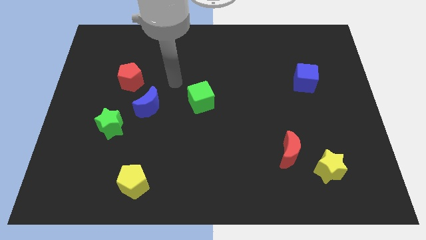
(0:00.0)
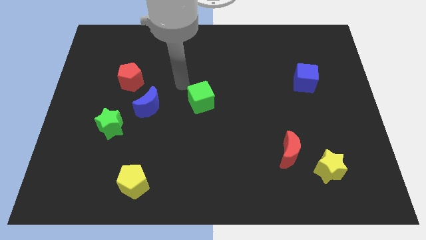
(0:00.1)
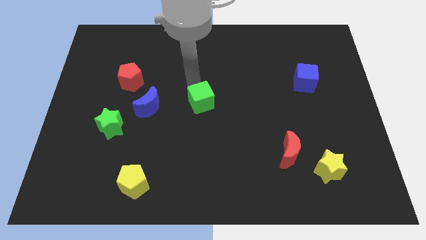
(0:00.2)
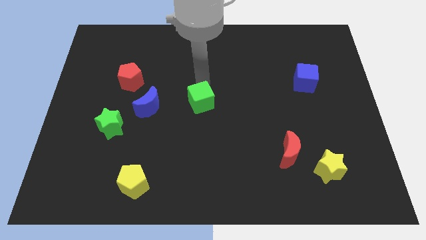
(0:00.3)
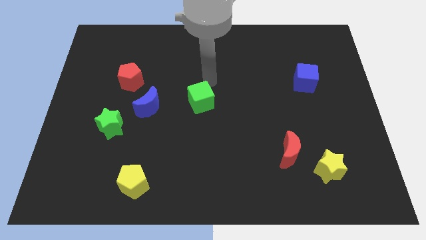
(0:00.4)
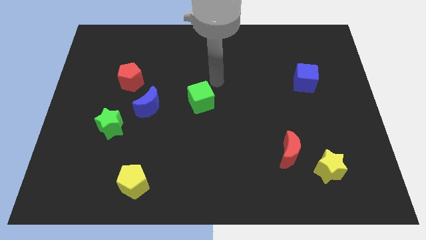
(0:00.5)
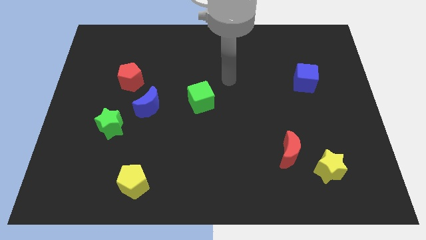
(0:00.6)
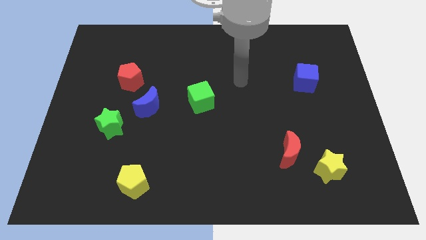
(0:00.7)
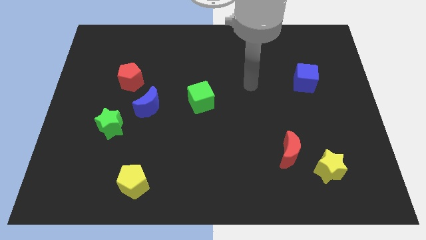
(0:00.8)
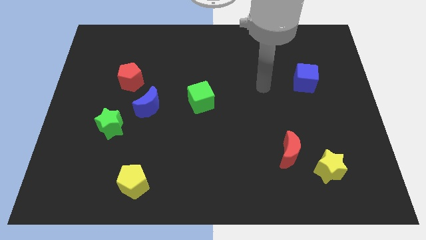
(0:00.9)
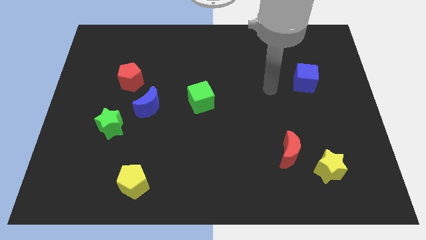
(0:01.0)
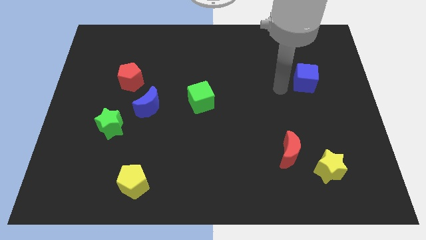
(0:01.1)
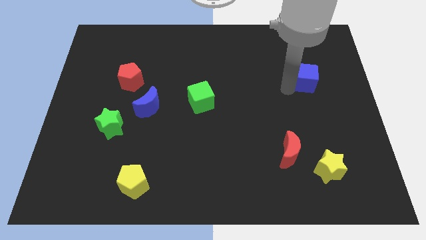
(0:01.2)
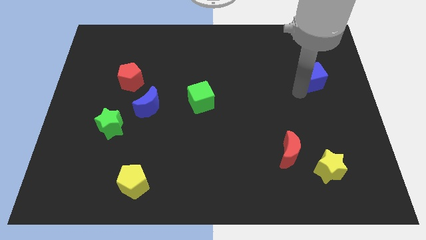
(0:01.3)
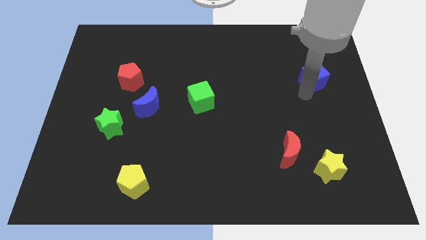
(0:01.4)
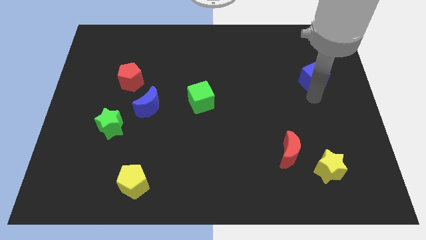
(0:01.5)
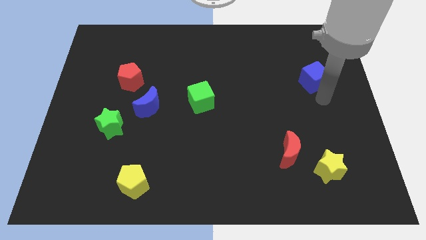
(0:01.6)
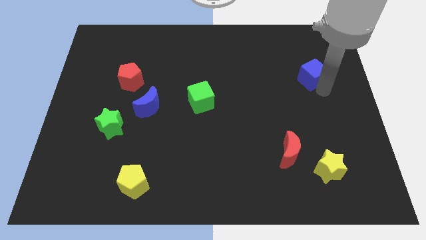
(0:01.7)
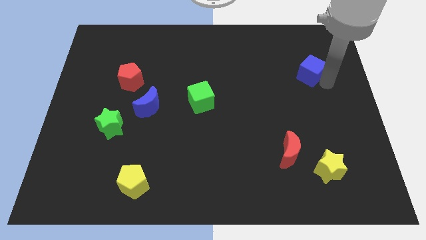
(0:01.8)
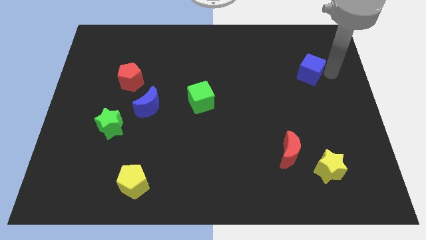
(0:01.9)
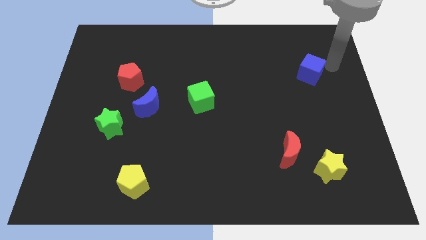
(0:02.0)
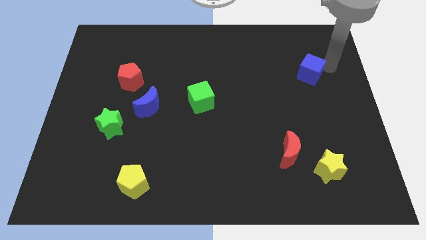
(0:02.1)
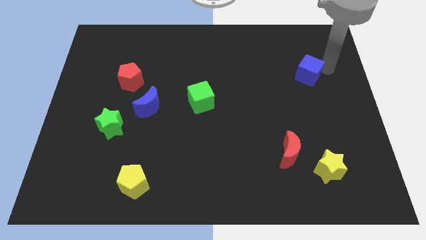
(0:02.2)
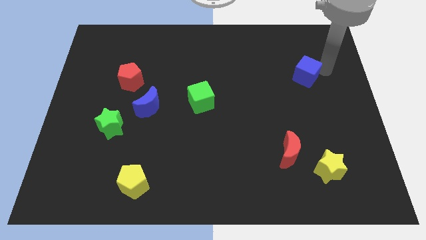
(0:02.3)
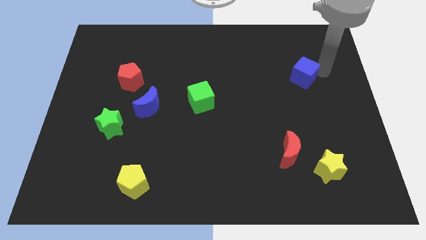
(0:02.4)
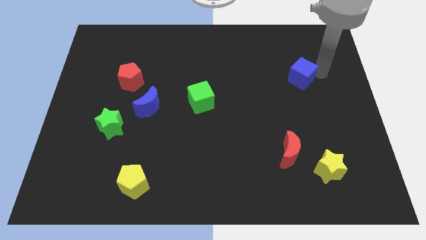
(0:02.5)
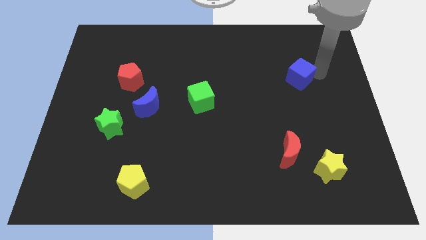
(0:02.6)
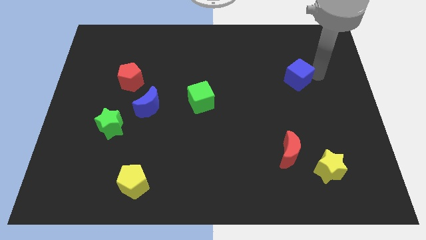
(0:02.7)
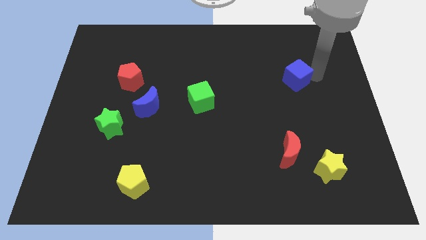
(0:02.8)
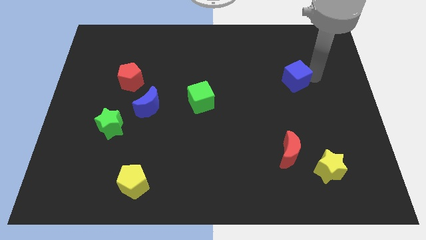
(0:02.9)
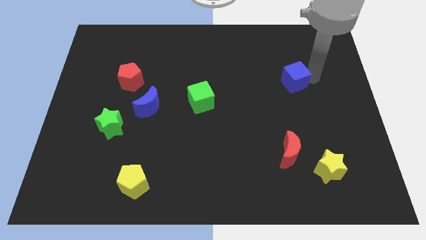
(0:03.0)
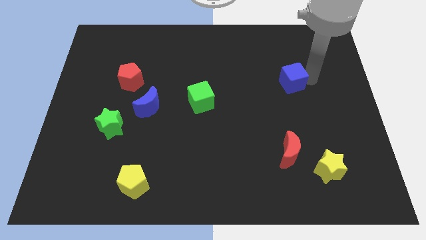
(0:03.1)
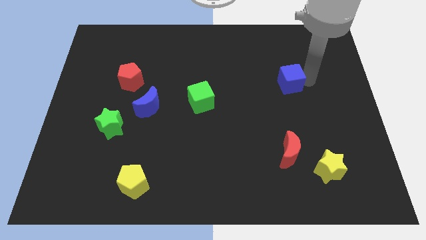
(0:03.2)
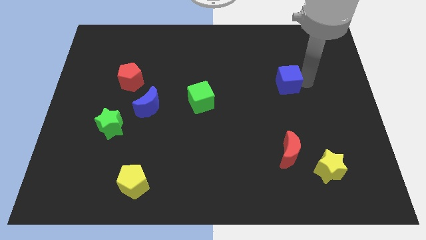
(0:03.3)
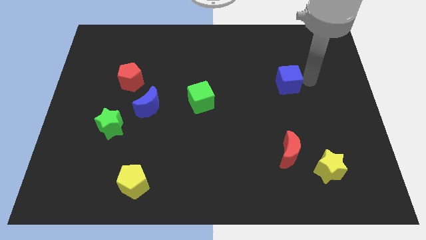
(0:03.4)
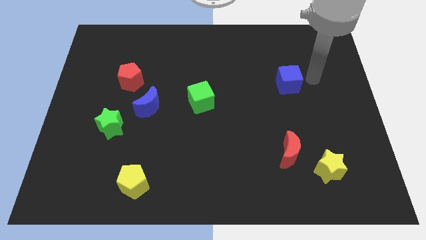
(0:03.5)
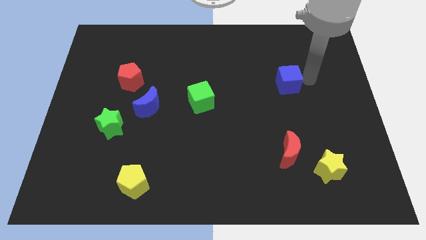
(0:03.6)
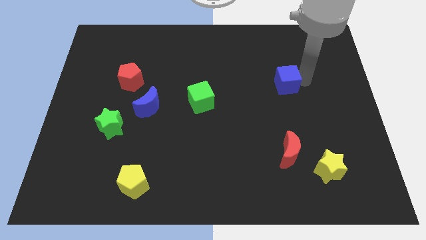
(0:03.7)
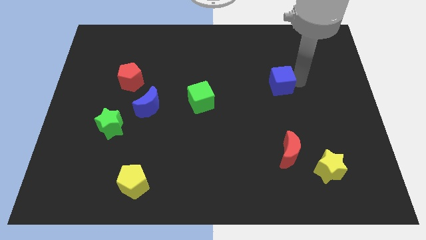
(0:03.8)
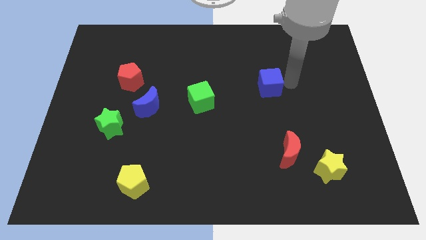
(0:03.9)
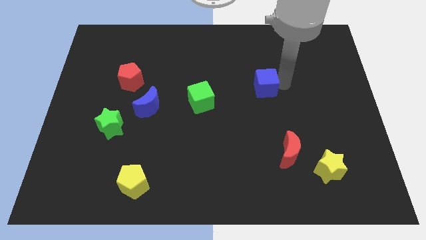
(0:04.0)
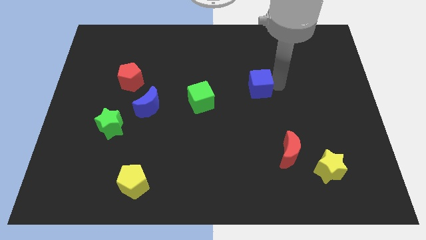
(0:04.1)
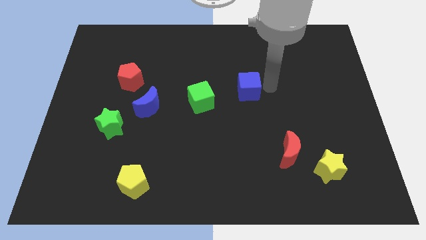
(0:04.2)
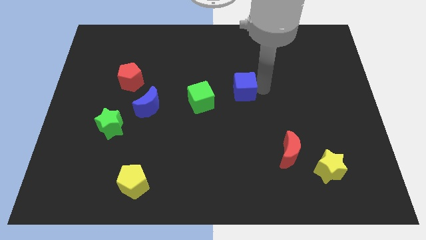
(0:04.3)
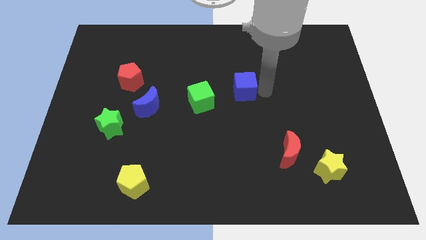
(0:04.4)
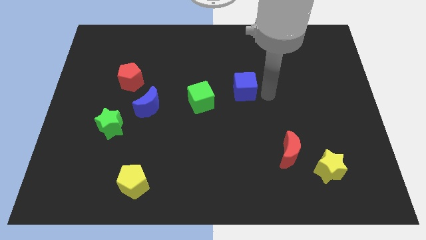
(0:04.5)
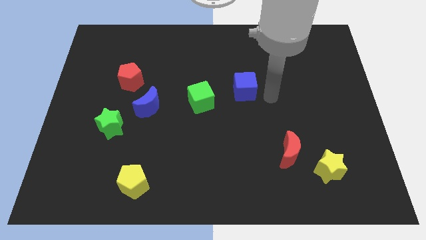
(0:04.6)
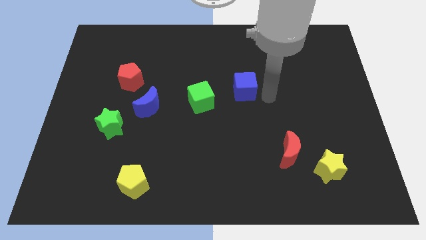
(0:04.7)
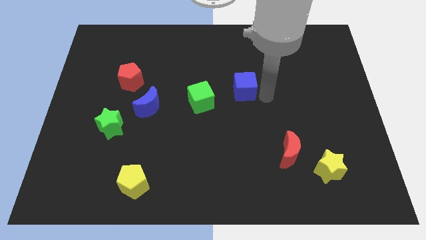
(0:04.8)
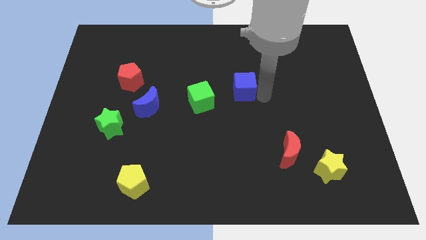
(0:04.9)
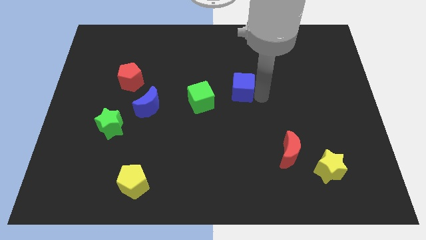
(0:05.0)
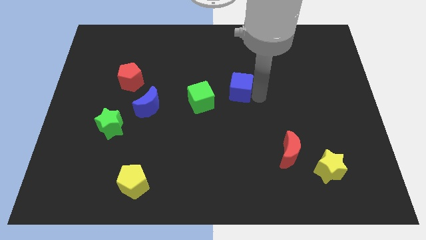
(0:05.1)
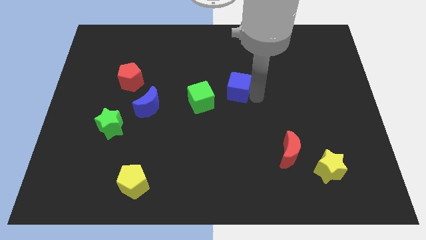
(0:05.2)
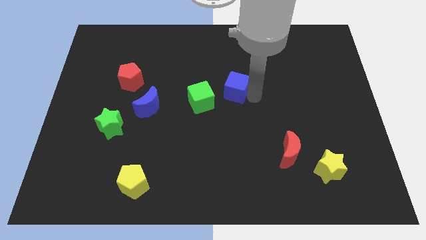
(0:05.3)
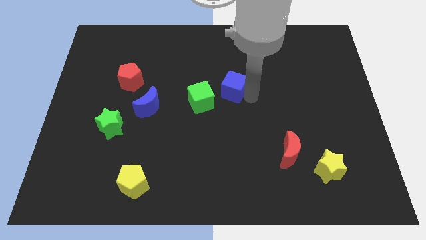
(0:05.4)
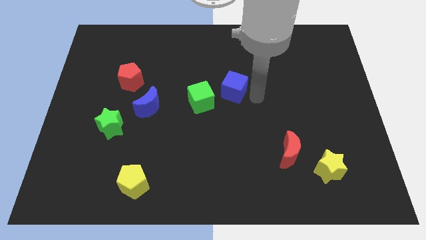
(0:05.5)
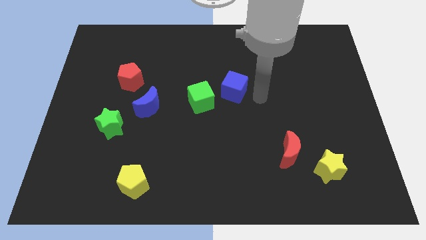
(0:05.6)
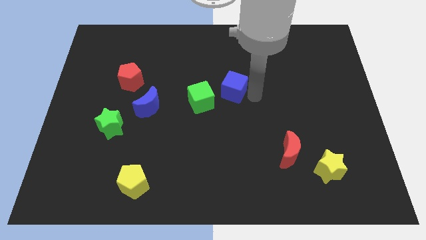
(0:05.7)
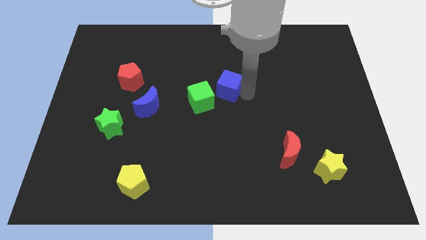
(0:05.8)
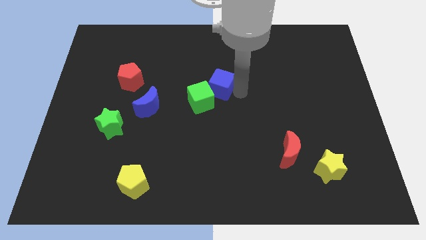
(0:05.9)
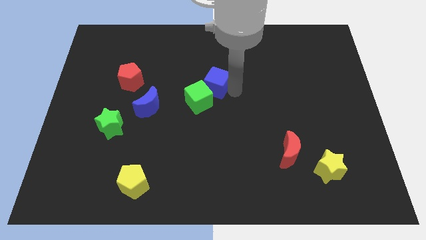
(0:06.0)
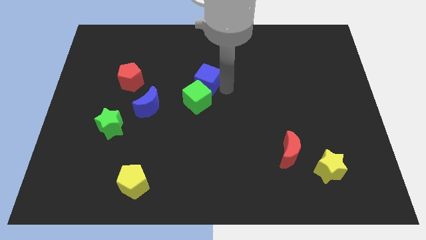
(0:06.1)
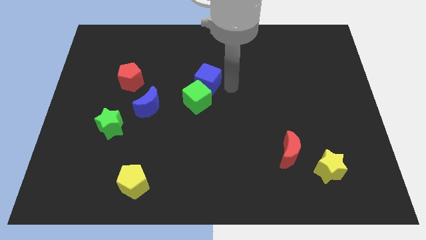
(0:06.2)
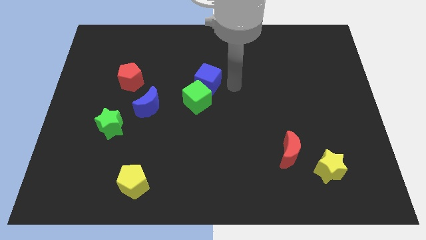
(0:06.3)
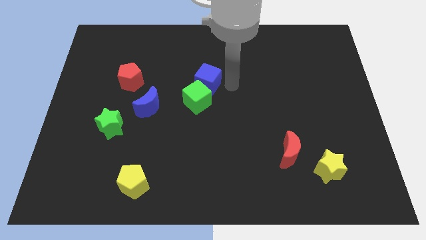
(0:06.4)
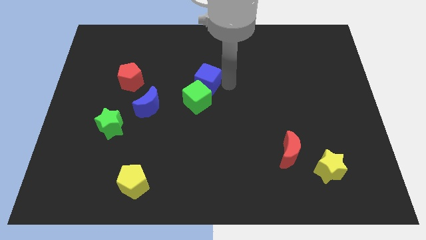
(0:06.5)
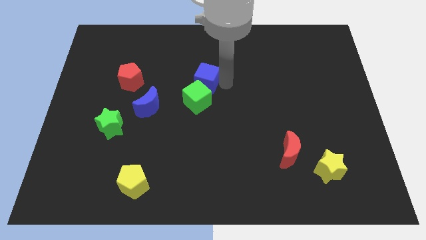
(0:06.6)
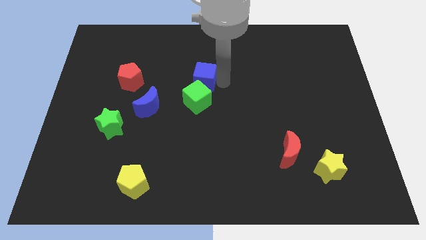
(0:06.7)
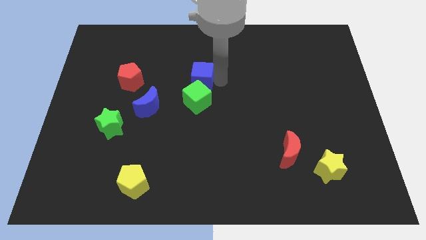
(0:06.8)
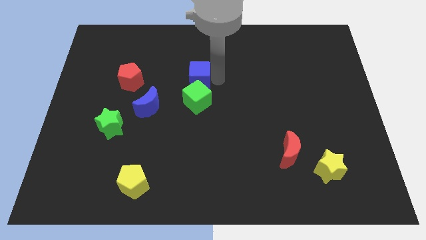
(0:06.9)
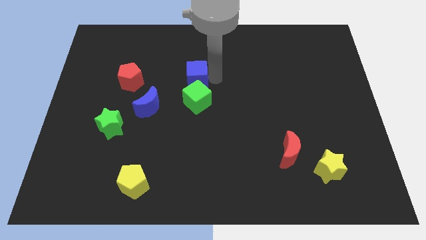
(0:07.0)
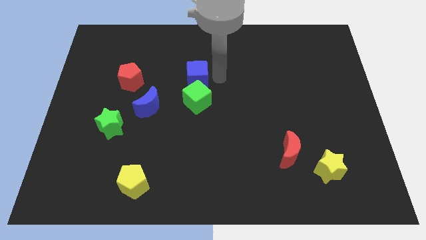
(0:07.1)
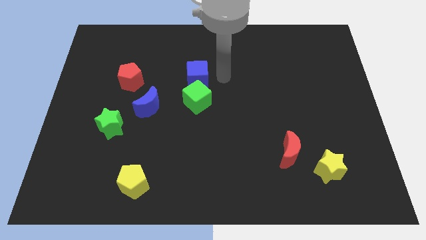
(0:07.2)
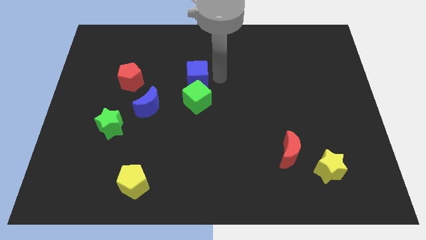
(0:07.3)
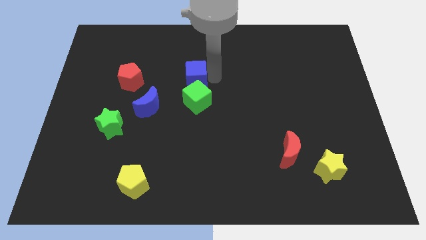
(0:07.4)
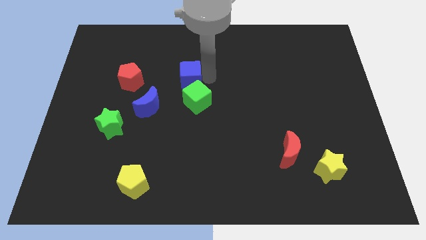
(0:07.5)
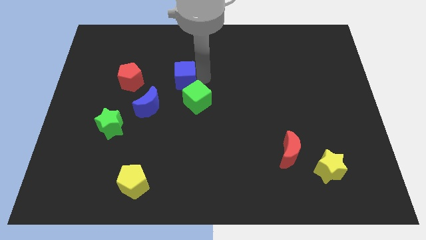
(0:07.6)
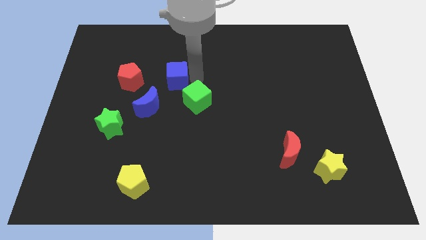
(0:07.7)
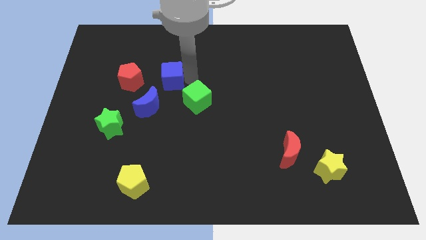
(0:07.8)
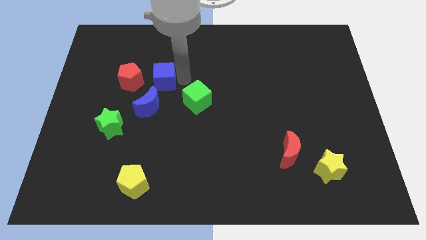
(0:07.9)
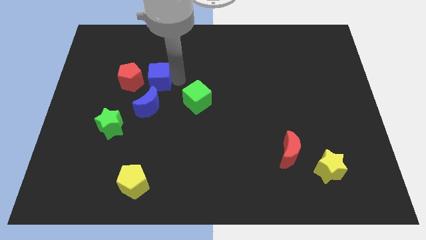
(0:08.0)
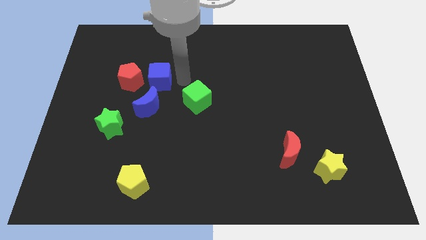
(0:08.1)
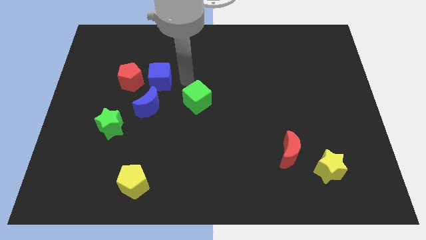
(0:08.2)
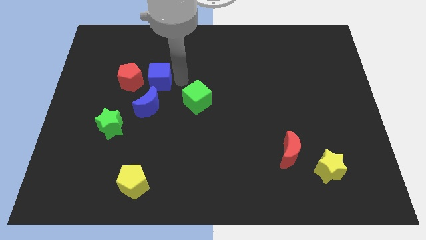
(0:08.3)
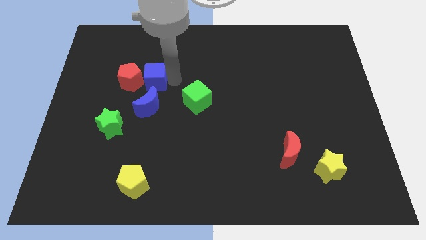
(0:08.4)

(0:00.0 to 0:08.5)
slide the blue cube towards the red pentagon
